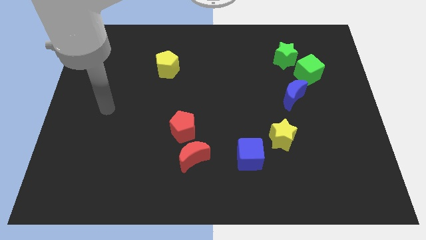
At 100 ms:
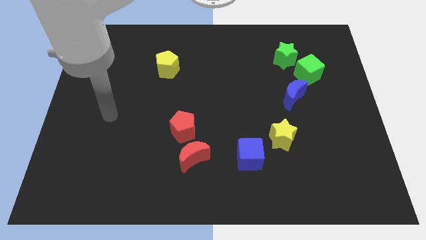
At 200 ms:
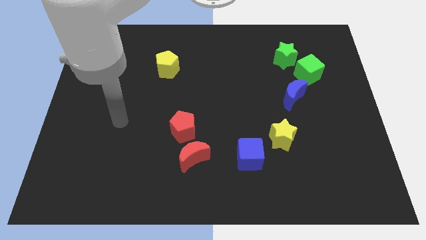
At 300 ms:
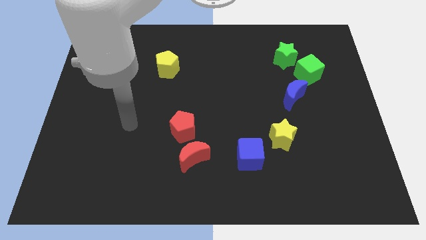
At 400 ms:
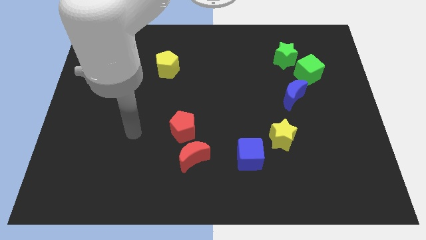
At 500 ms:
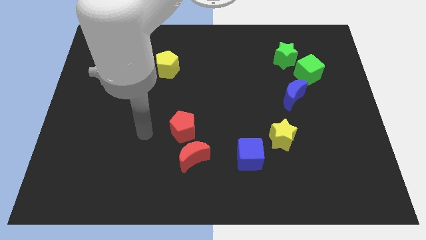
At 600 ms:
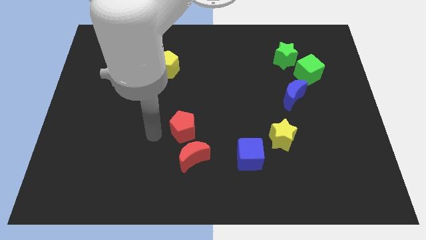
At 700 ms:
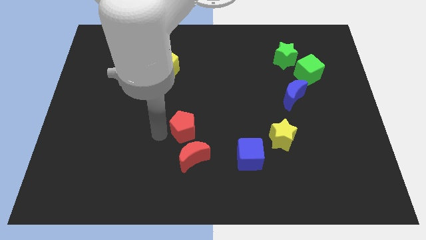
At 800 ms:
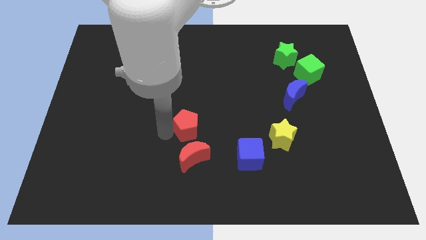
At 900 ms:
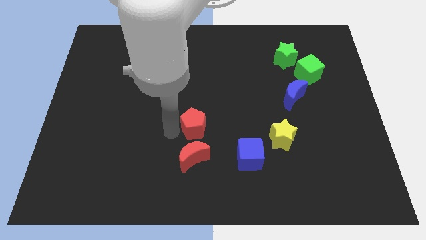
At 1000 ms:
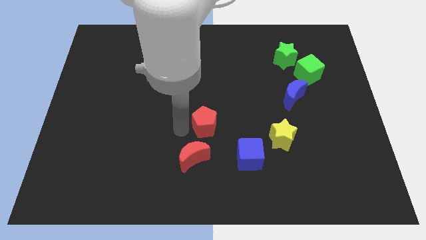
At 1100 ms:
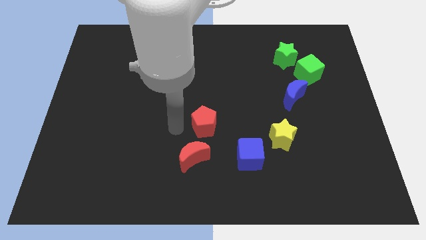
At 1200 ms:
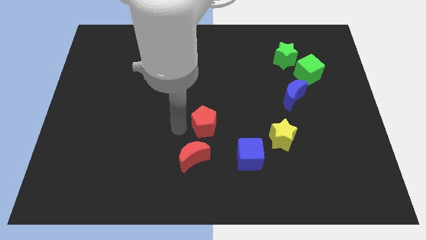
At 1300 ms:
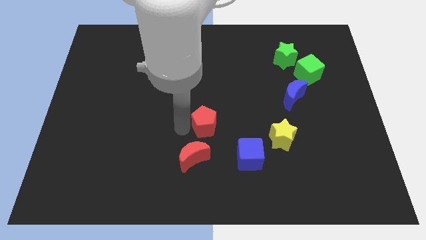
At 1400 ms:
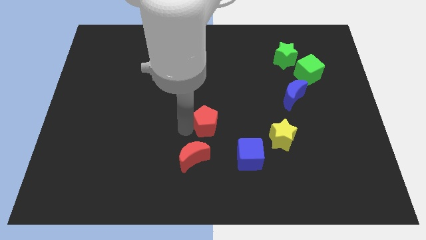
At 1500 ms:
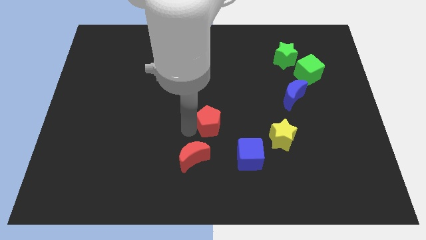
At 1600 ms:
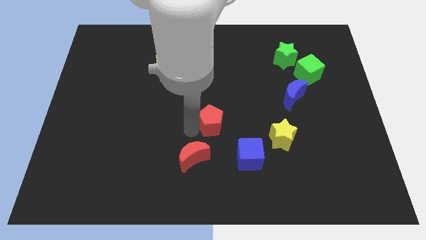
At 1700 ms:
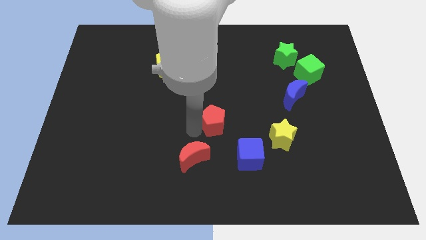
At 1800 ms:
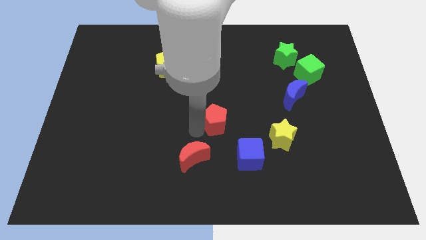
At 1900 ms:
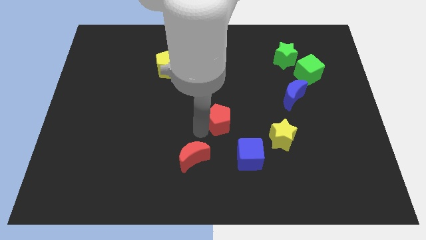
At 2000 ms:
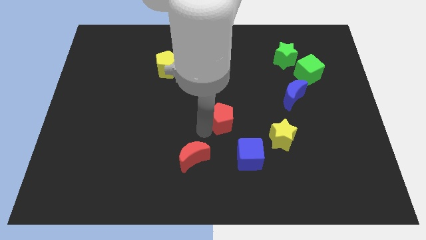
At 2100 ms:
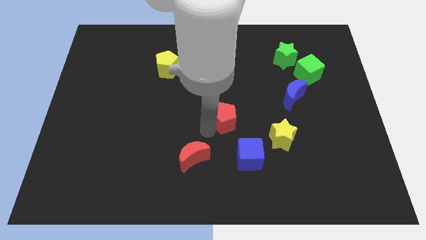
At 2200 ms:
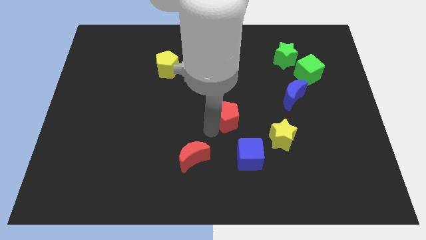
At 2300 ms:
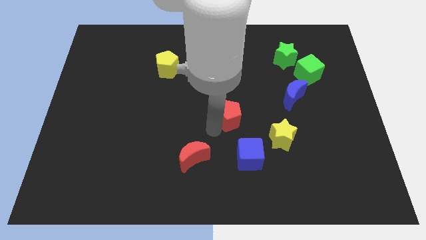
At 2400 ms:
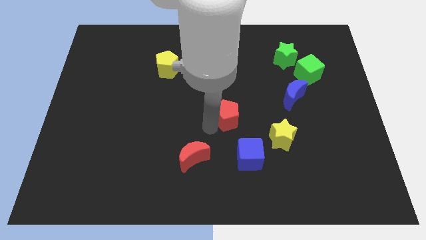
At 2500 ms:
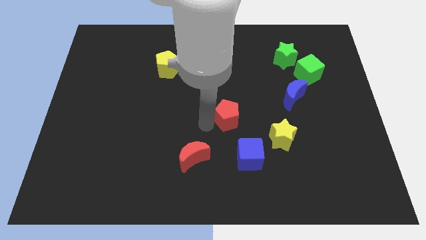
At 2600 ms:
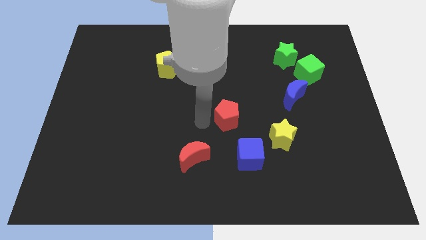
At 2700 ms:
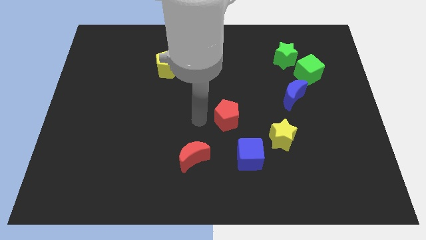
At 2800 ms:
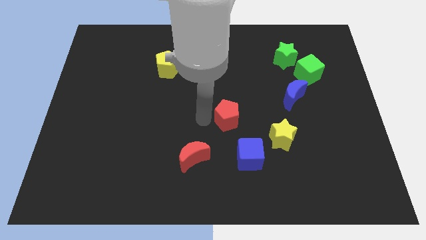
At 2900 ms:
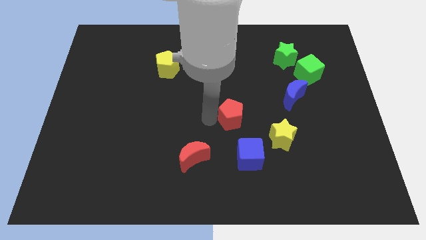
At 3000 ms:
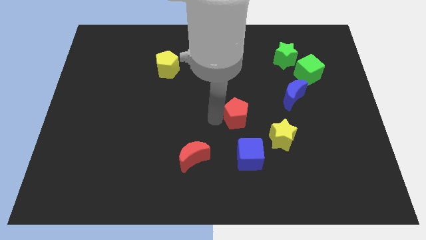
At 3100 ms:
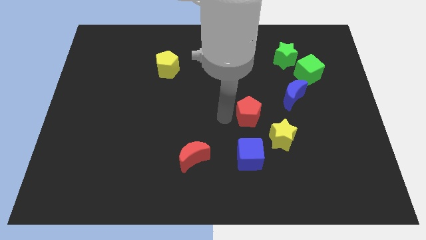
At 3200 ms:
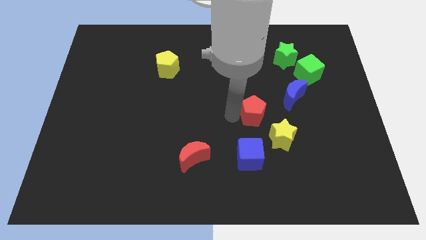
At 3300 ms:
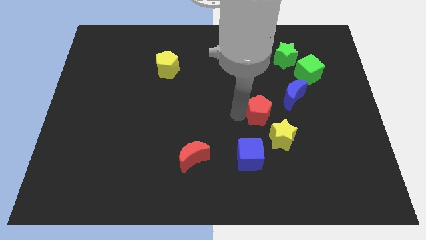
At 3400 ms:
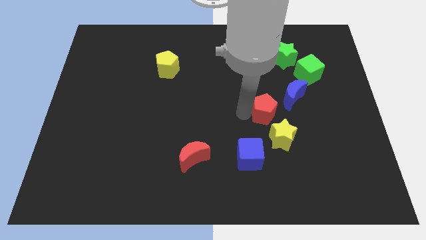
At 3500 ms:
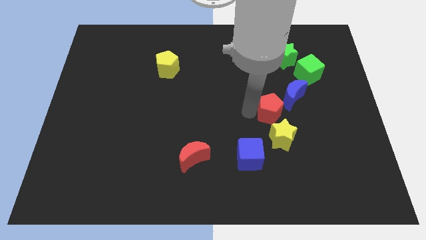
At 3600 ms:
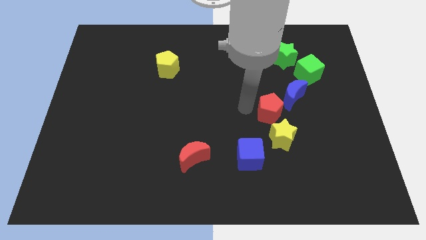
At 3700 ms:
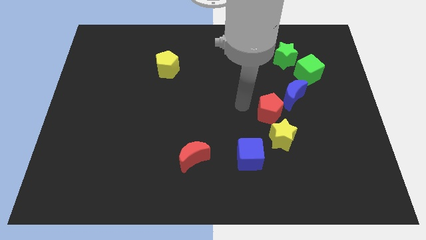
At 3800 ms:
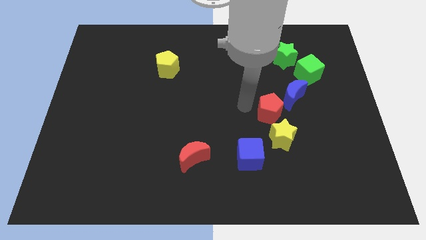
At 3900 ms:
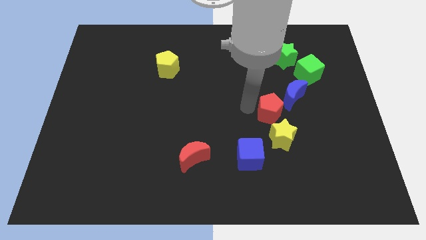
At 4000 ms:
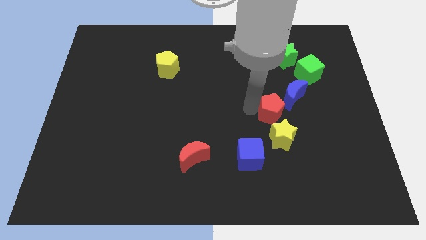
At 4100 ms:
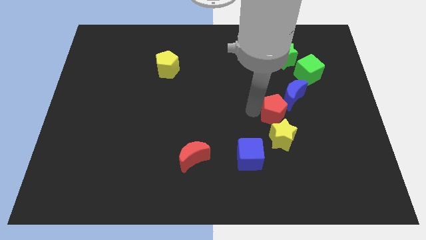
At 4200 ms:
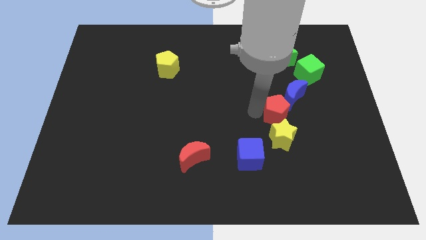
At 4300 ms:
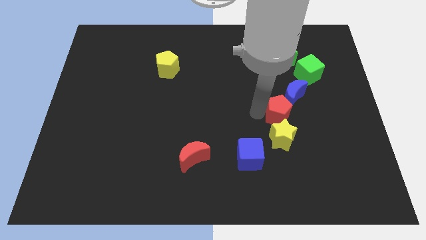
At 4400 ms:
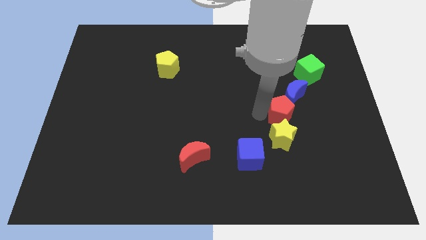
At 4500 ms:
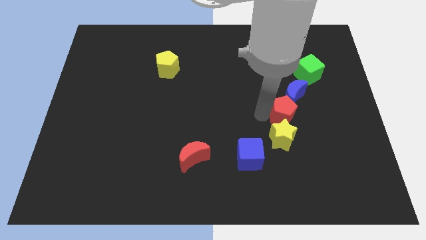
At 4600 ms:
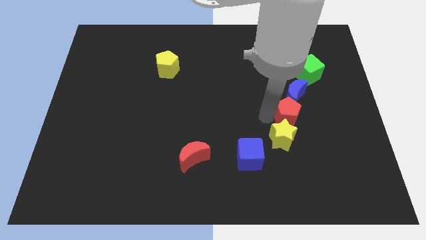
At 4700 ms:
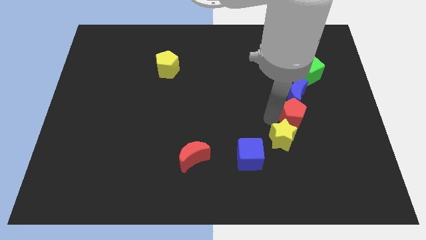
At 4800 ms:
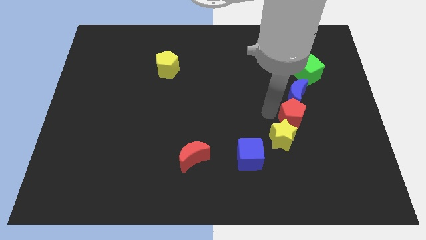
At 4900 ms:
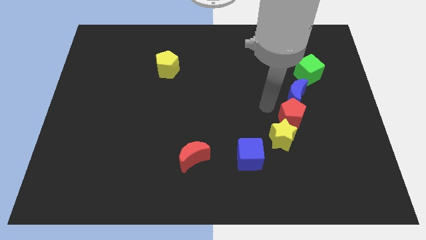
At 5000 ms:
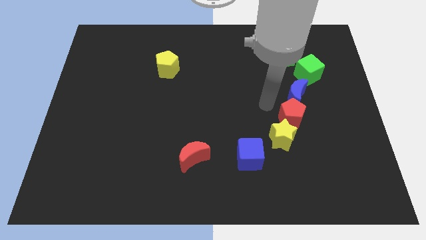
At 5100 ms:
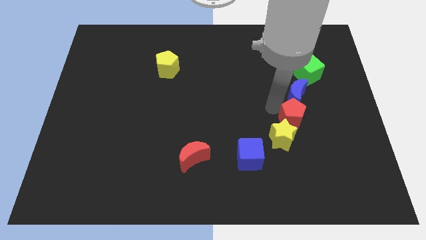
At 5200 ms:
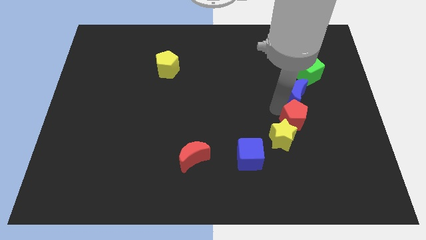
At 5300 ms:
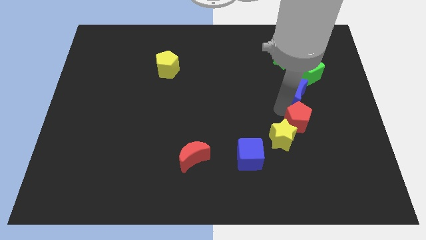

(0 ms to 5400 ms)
move the red pentagon to the right side of the yellow star

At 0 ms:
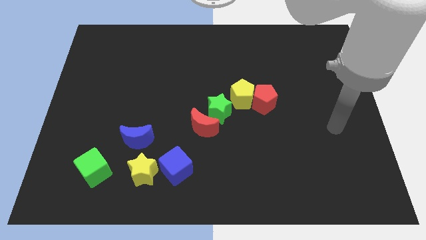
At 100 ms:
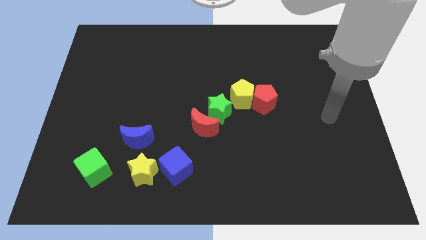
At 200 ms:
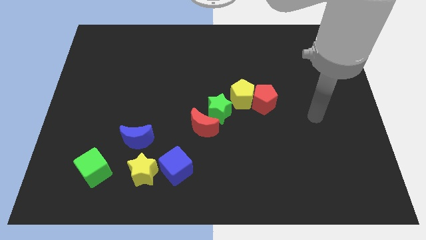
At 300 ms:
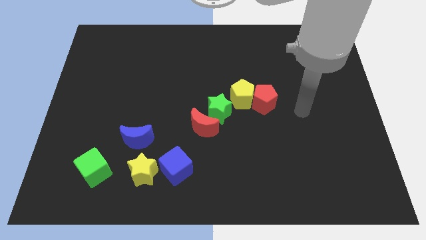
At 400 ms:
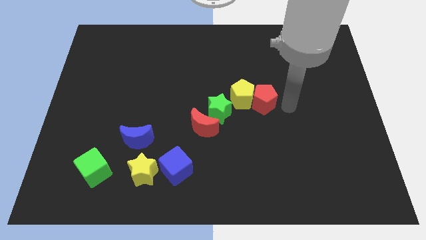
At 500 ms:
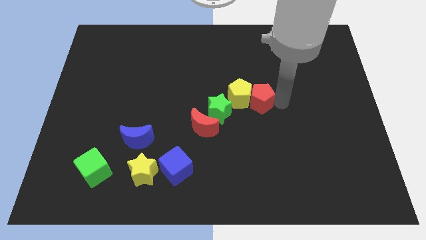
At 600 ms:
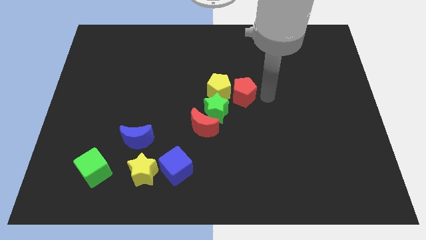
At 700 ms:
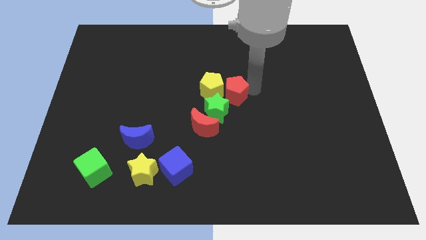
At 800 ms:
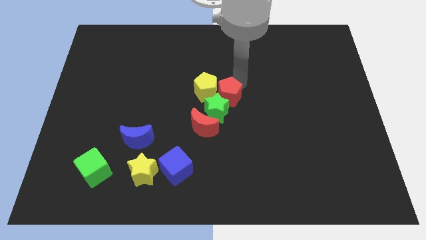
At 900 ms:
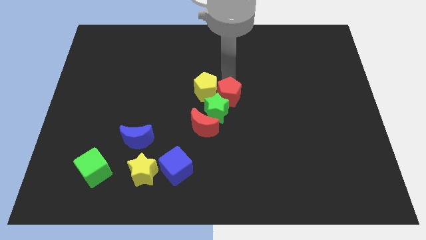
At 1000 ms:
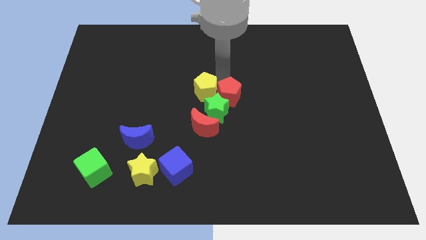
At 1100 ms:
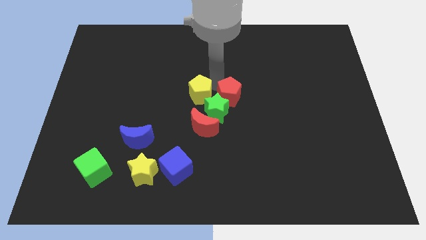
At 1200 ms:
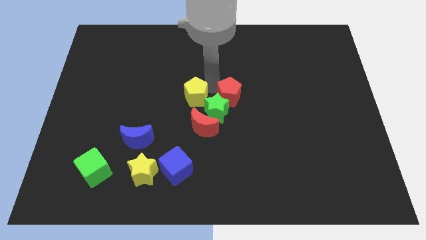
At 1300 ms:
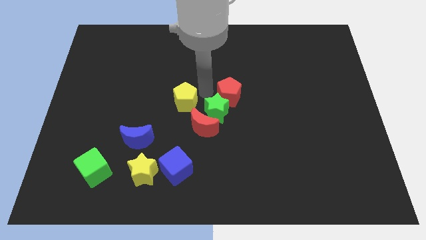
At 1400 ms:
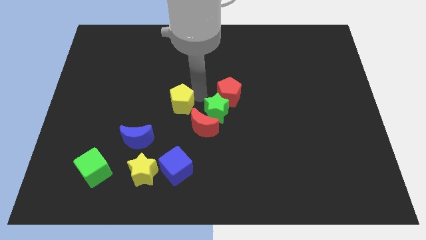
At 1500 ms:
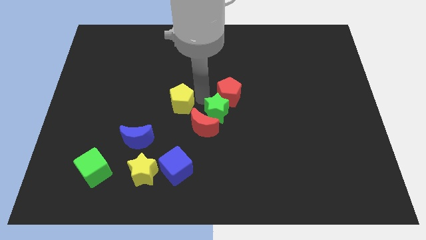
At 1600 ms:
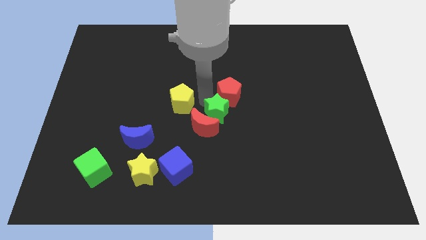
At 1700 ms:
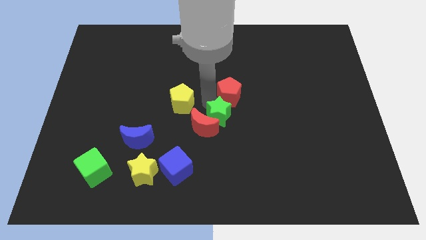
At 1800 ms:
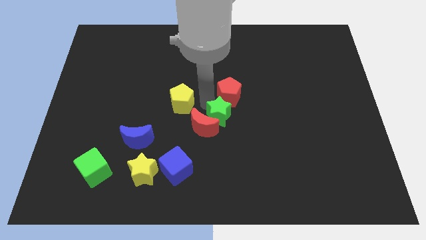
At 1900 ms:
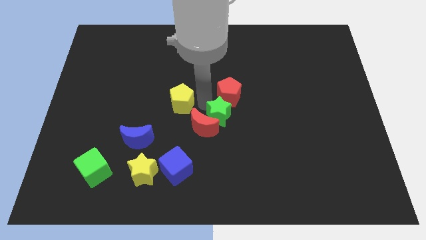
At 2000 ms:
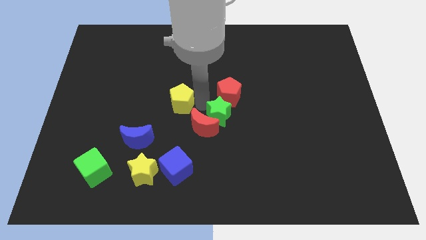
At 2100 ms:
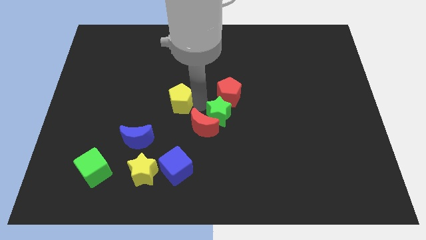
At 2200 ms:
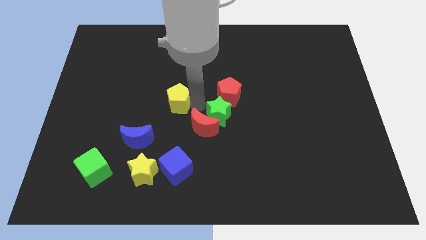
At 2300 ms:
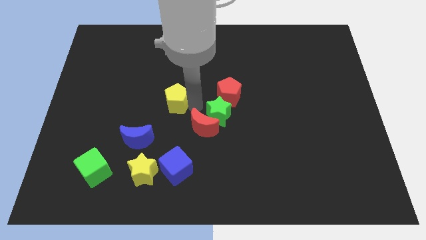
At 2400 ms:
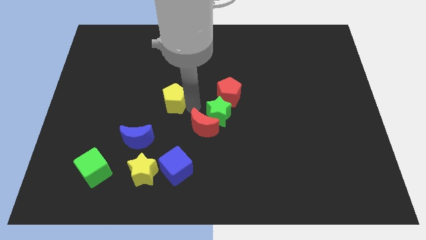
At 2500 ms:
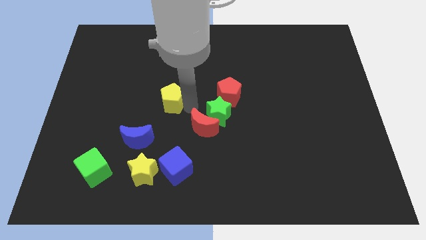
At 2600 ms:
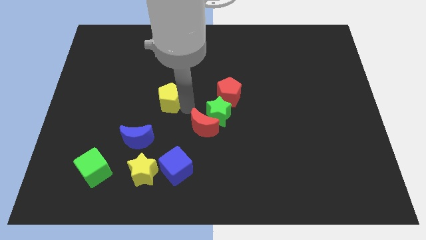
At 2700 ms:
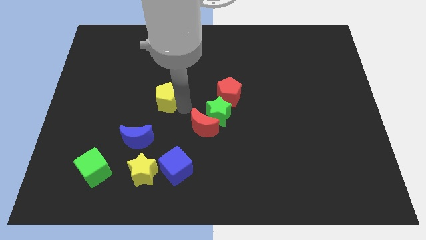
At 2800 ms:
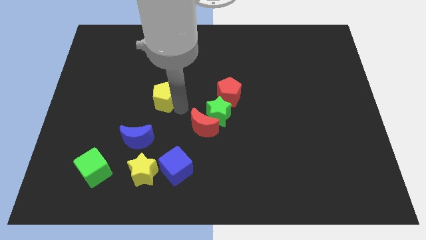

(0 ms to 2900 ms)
put the yellow pentagon to the top of the blue moon
